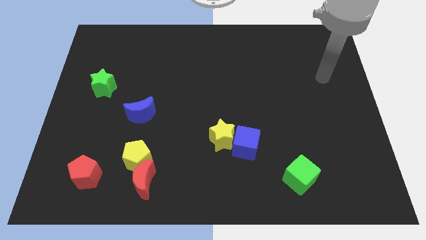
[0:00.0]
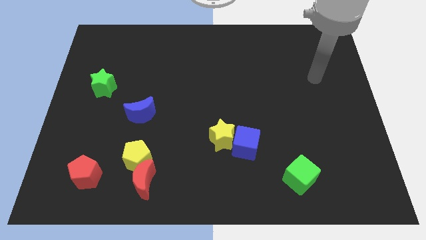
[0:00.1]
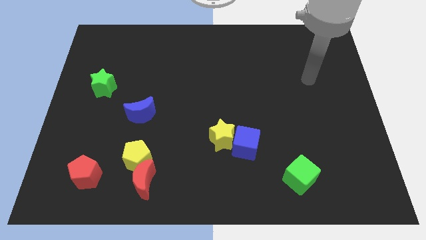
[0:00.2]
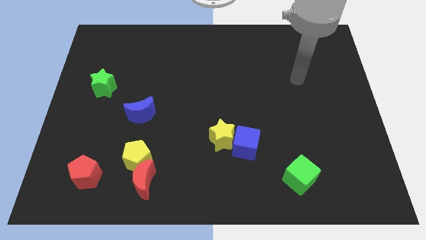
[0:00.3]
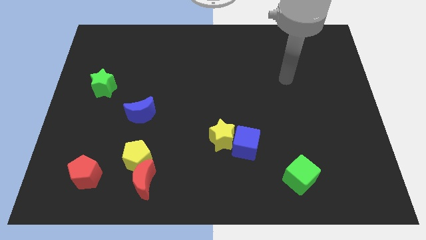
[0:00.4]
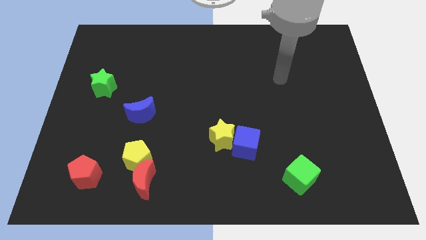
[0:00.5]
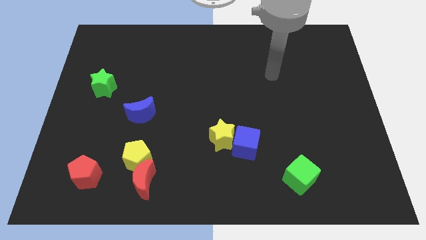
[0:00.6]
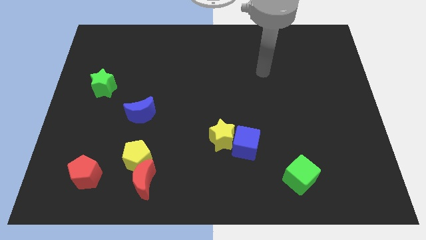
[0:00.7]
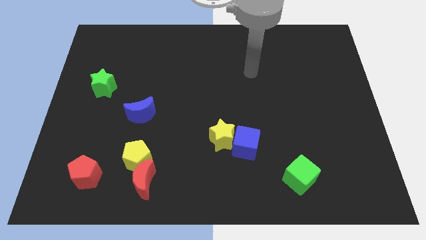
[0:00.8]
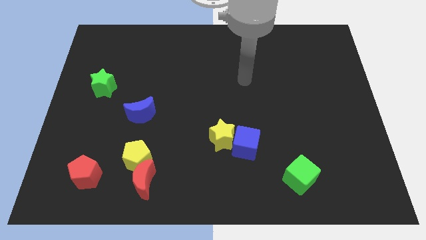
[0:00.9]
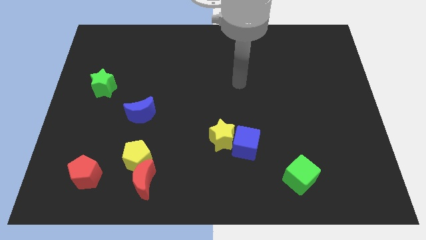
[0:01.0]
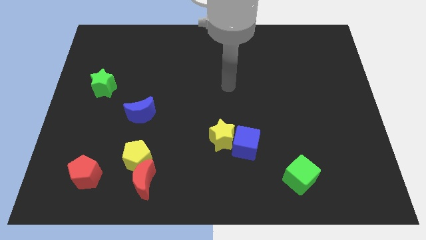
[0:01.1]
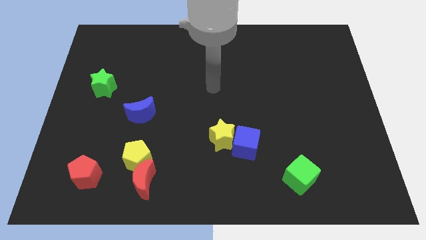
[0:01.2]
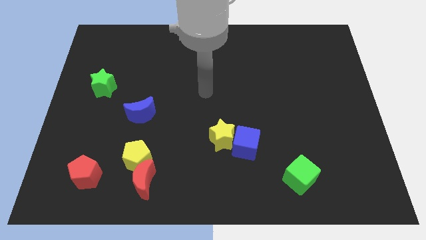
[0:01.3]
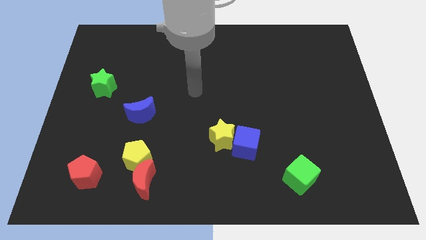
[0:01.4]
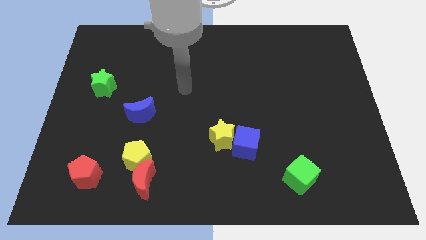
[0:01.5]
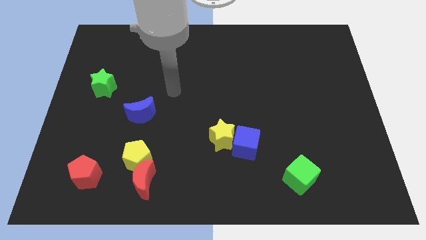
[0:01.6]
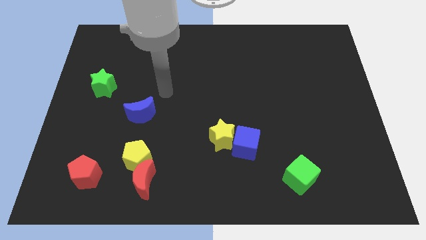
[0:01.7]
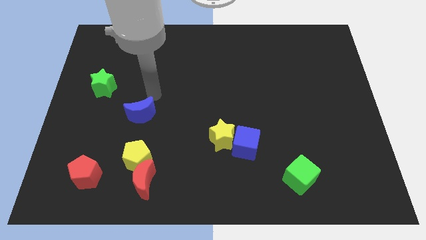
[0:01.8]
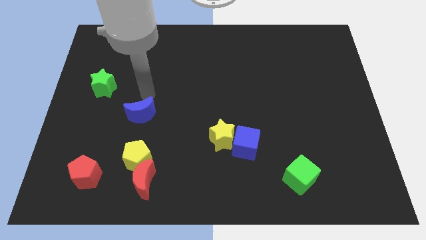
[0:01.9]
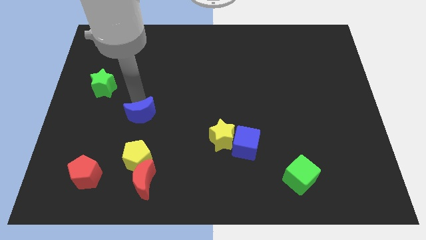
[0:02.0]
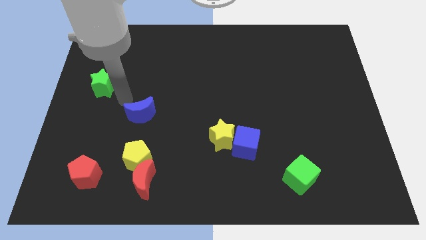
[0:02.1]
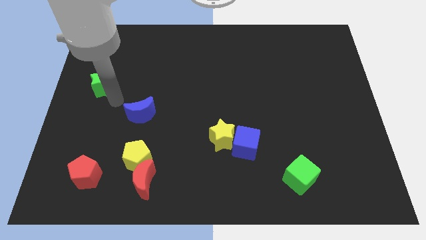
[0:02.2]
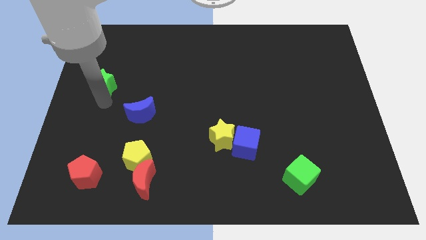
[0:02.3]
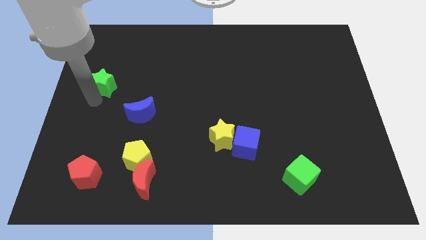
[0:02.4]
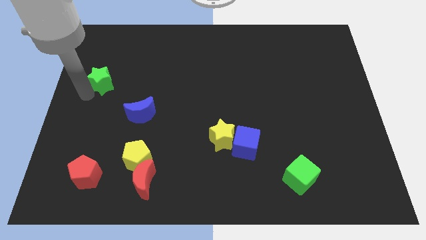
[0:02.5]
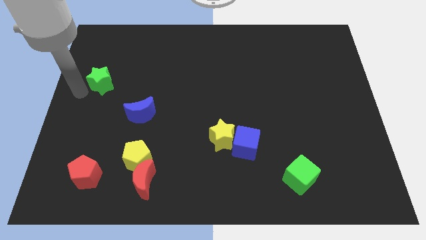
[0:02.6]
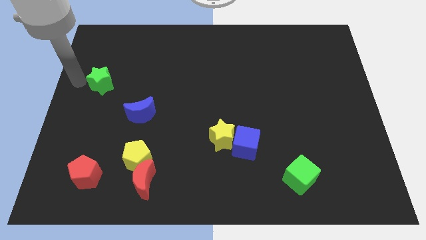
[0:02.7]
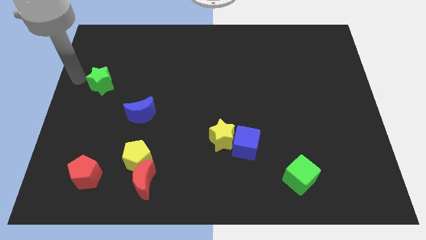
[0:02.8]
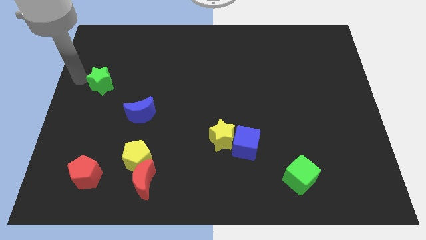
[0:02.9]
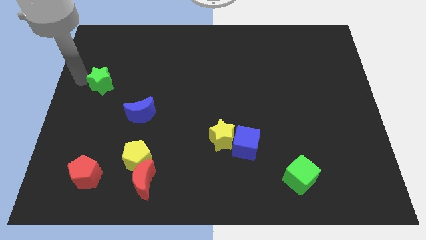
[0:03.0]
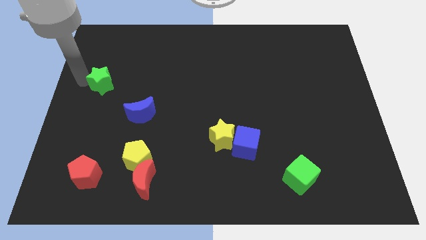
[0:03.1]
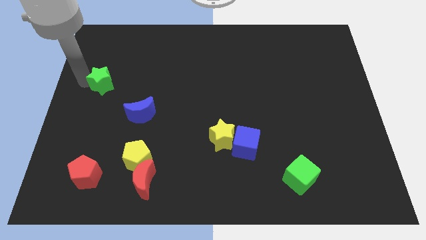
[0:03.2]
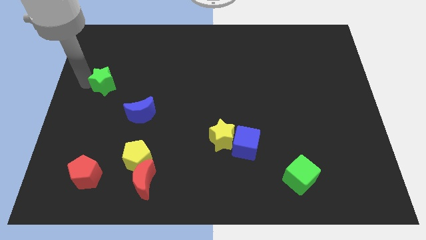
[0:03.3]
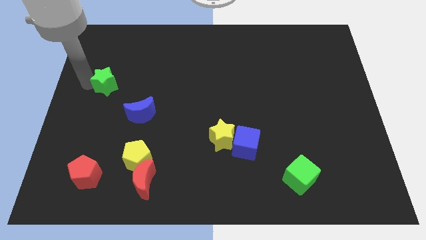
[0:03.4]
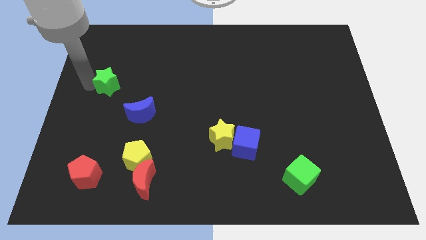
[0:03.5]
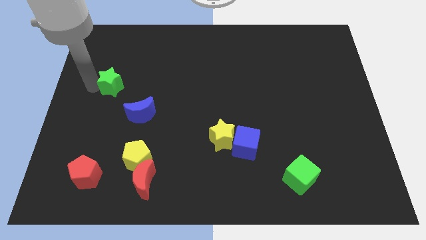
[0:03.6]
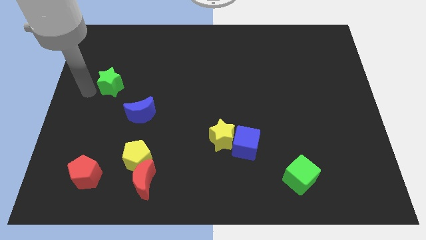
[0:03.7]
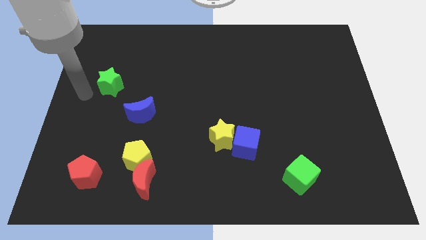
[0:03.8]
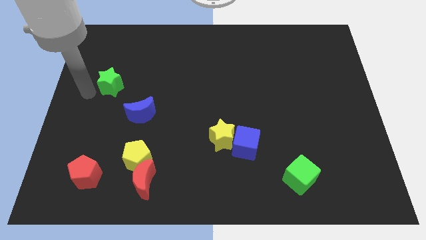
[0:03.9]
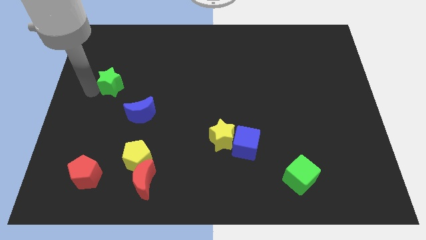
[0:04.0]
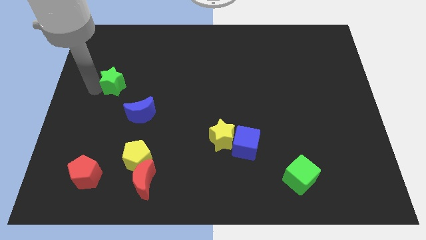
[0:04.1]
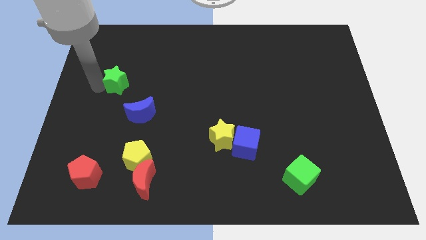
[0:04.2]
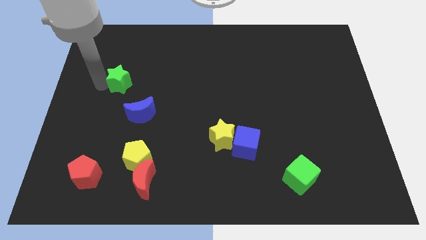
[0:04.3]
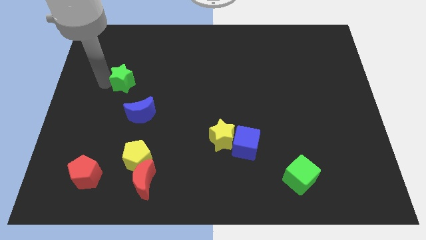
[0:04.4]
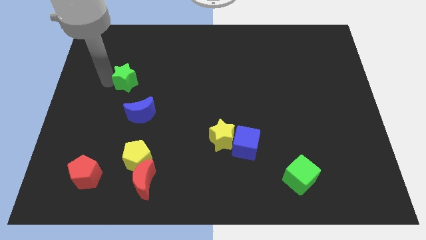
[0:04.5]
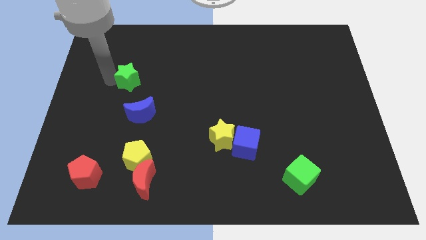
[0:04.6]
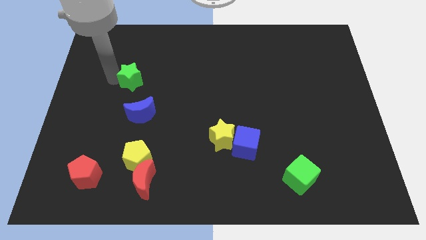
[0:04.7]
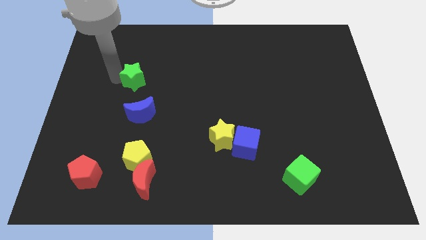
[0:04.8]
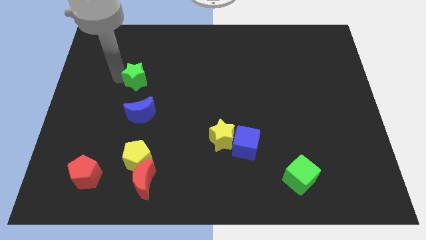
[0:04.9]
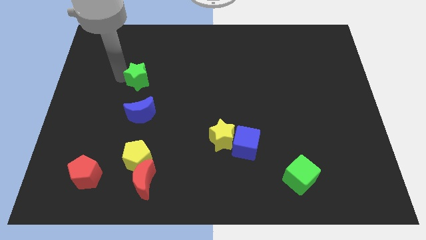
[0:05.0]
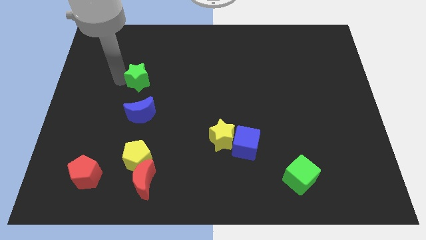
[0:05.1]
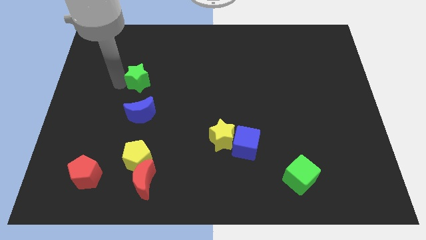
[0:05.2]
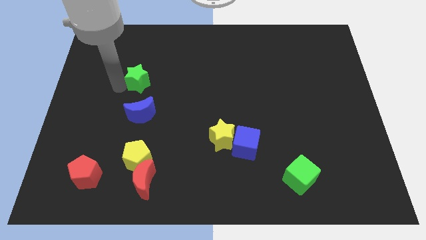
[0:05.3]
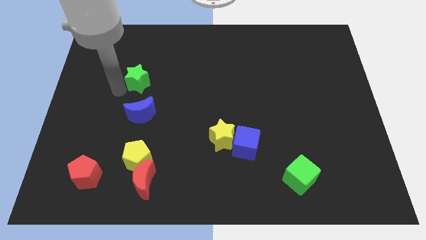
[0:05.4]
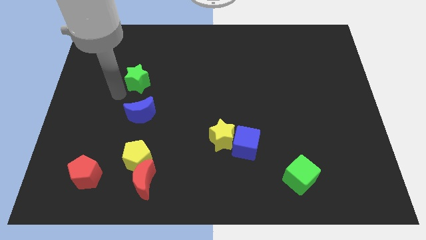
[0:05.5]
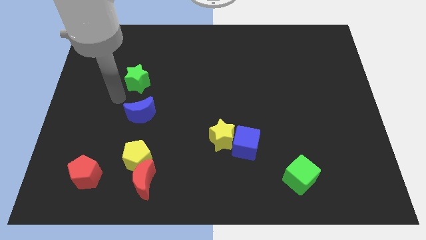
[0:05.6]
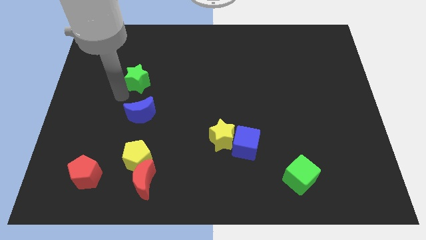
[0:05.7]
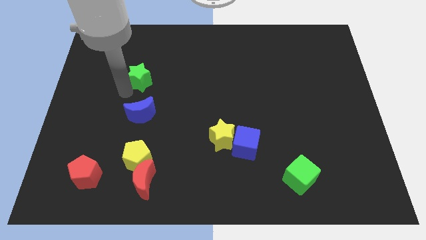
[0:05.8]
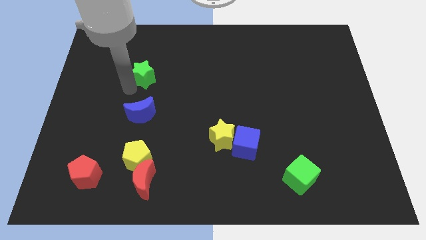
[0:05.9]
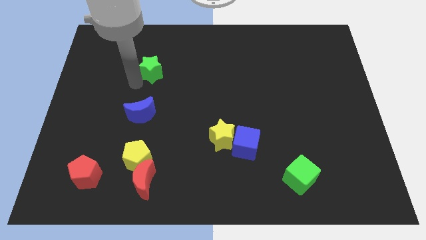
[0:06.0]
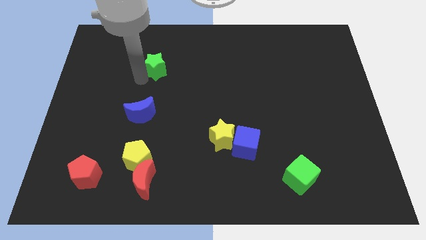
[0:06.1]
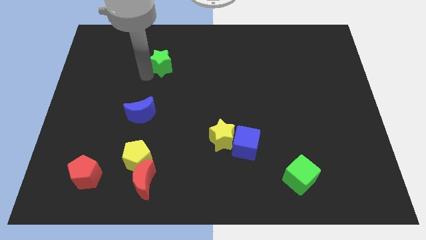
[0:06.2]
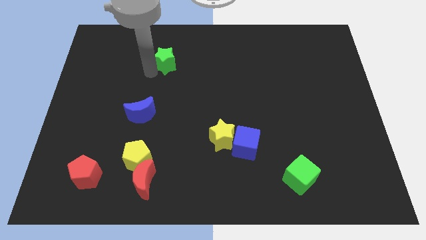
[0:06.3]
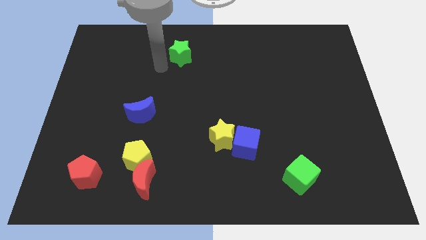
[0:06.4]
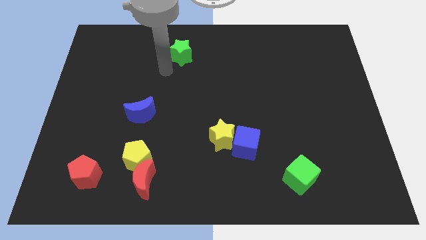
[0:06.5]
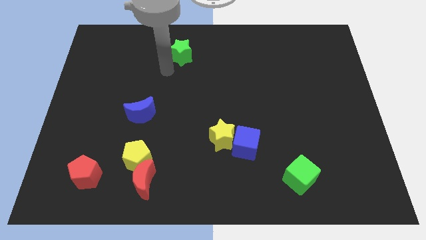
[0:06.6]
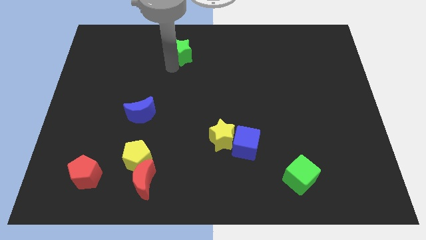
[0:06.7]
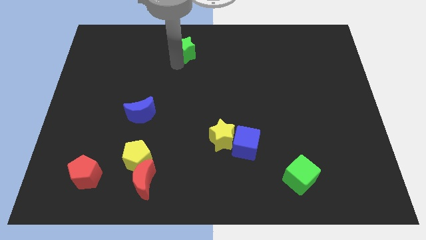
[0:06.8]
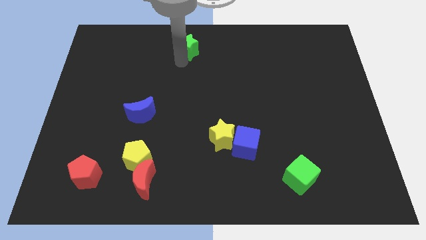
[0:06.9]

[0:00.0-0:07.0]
slide the green star to the top side

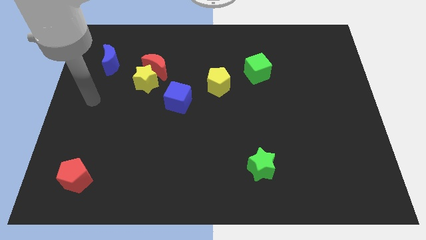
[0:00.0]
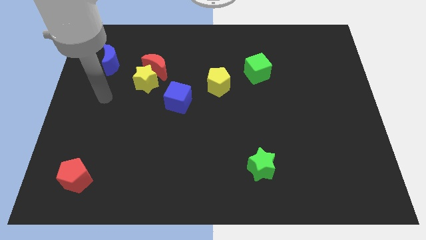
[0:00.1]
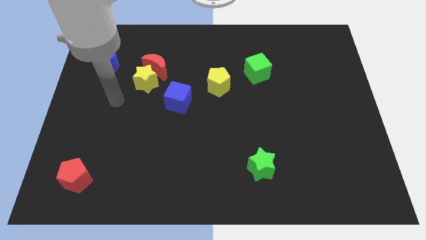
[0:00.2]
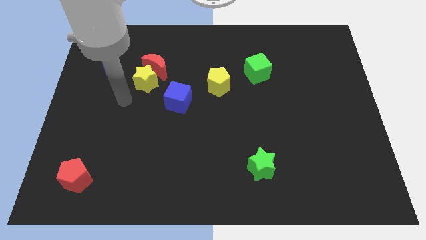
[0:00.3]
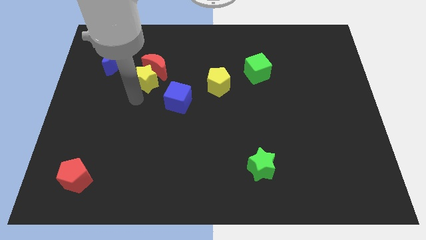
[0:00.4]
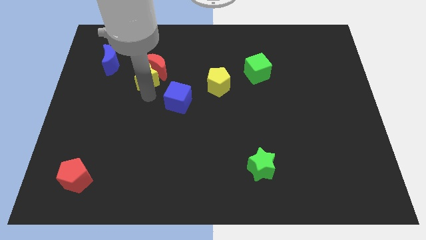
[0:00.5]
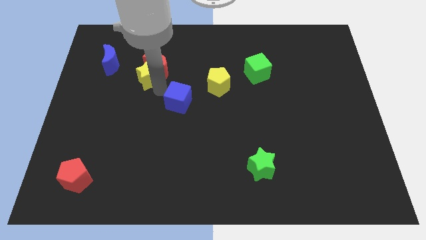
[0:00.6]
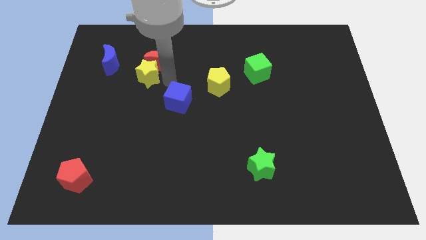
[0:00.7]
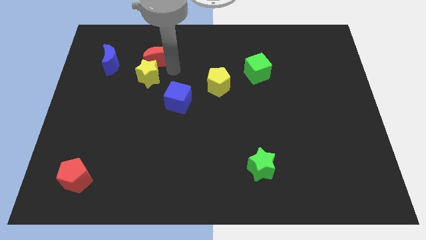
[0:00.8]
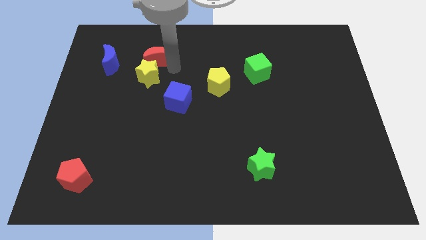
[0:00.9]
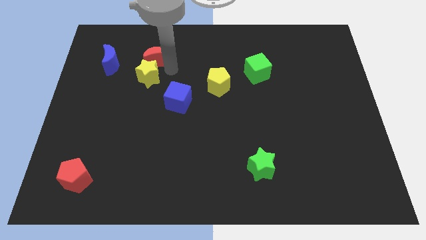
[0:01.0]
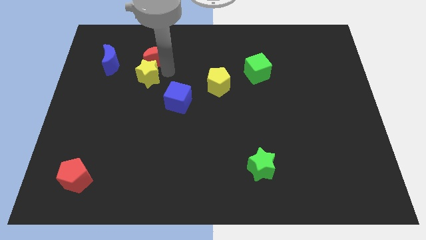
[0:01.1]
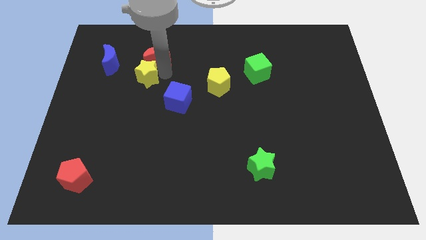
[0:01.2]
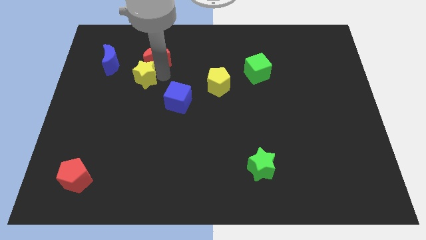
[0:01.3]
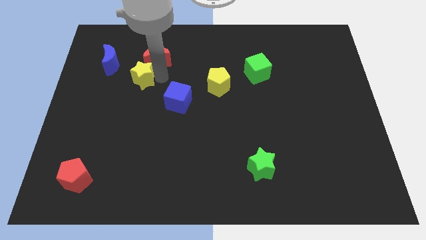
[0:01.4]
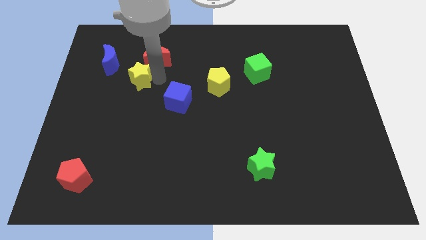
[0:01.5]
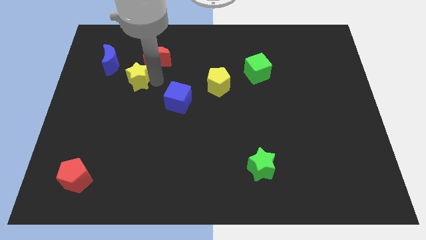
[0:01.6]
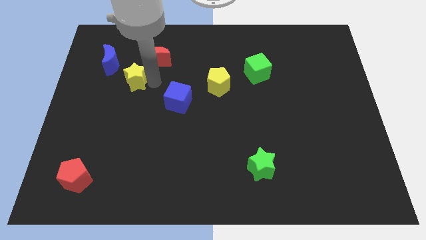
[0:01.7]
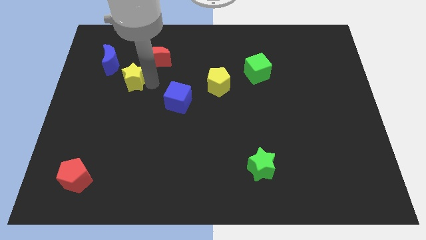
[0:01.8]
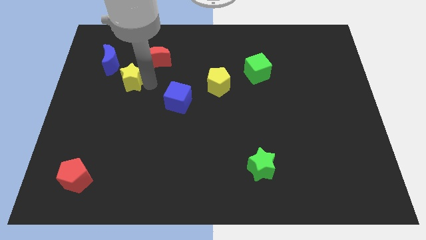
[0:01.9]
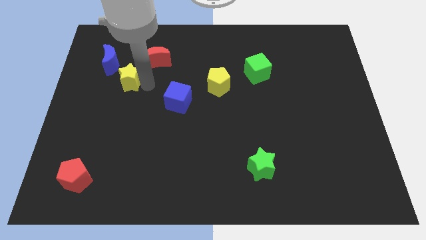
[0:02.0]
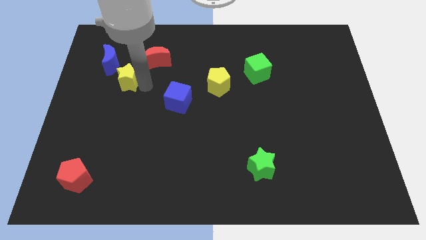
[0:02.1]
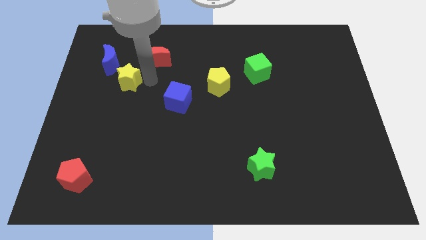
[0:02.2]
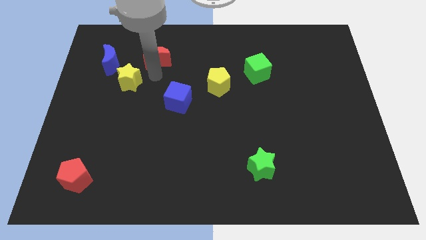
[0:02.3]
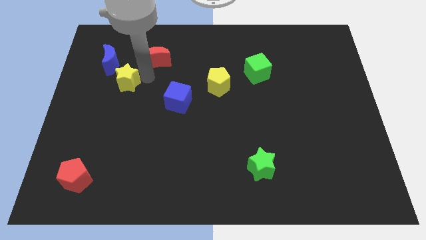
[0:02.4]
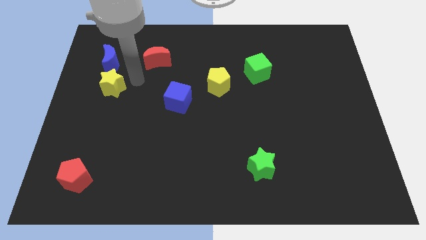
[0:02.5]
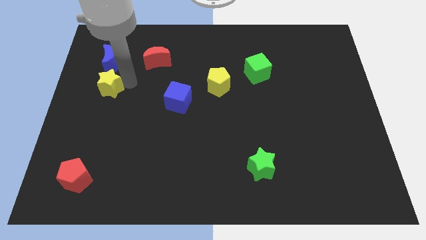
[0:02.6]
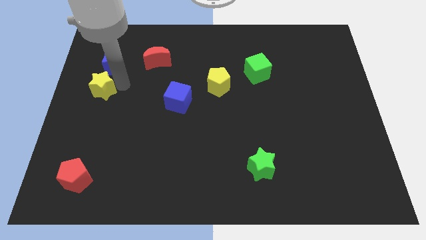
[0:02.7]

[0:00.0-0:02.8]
push the yellow star to the center left
